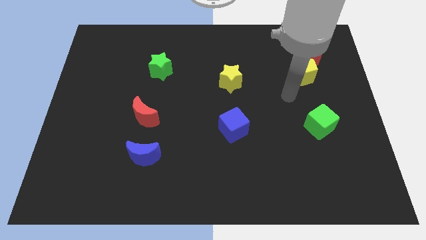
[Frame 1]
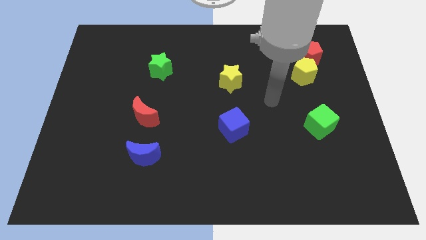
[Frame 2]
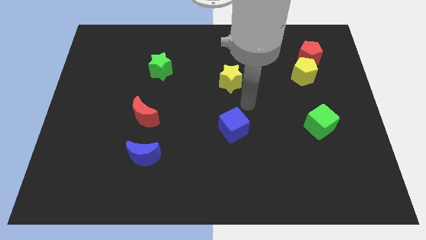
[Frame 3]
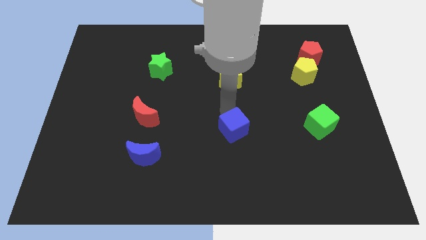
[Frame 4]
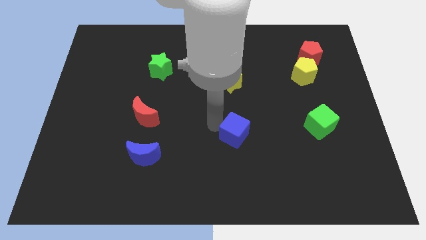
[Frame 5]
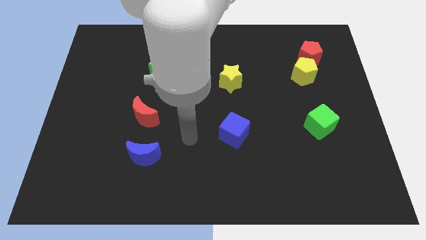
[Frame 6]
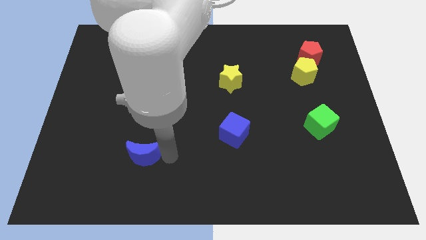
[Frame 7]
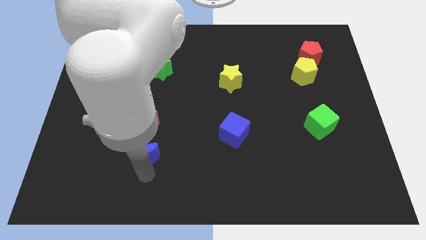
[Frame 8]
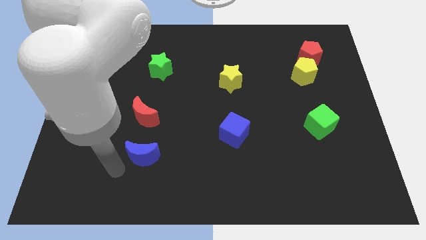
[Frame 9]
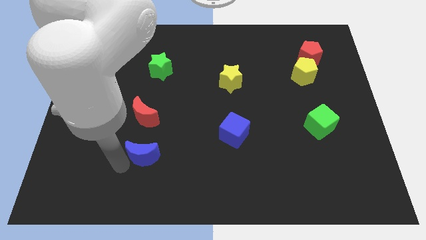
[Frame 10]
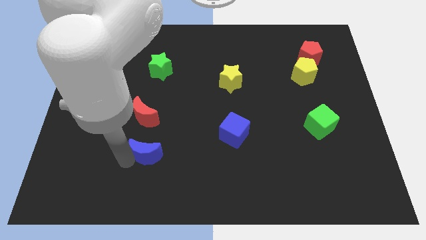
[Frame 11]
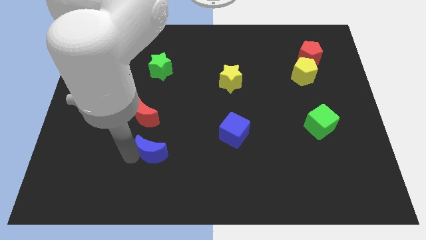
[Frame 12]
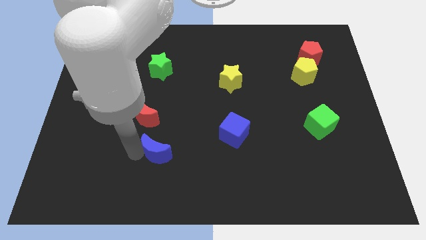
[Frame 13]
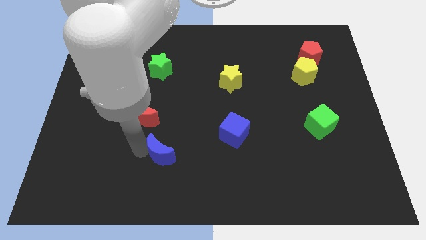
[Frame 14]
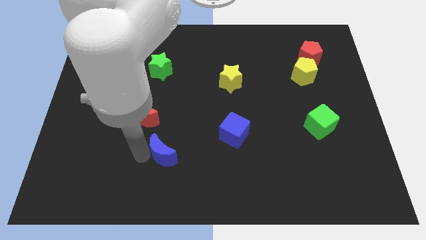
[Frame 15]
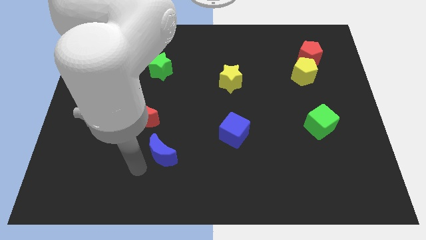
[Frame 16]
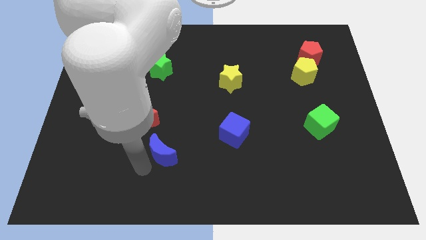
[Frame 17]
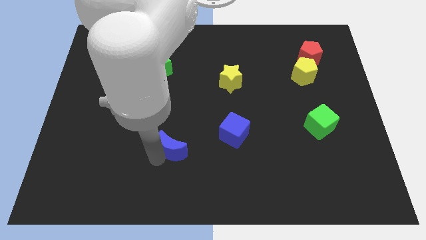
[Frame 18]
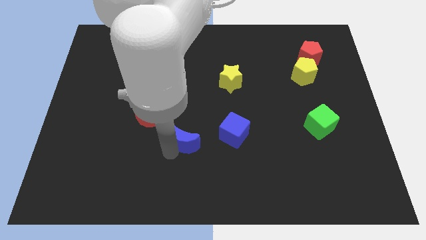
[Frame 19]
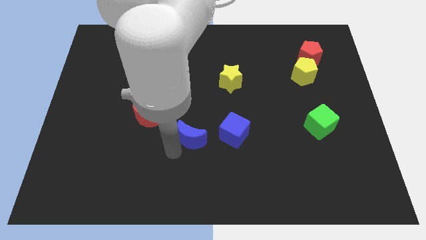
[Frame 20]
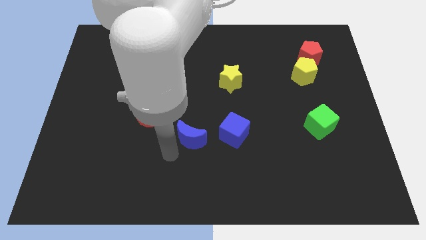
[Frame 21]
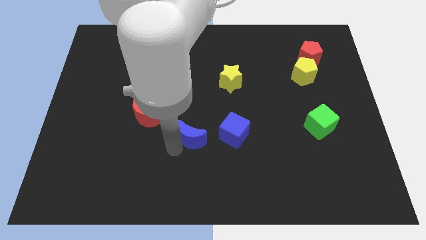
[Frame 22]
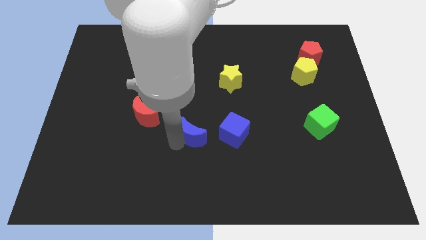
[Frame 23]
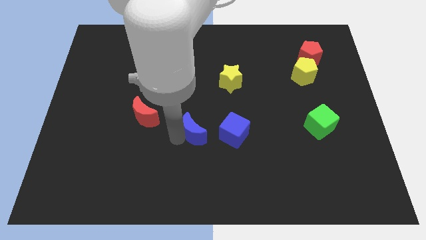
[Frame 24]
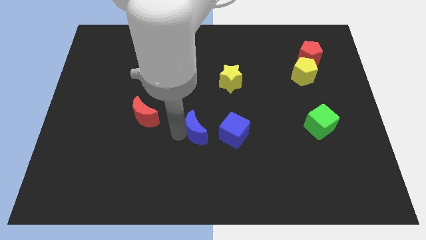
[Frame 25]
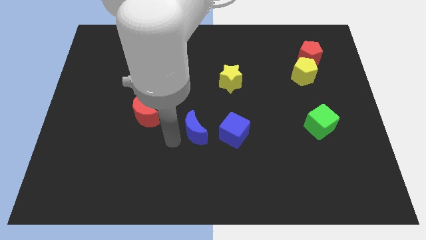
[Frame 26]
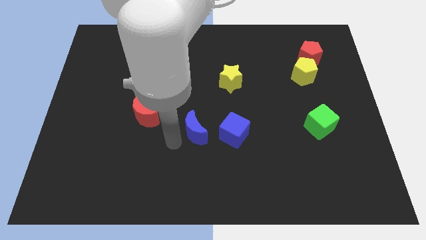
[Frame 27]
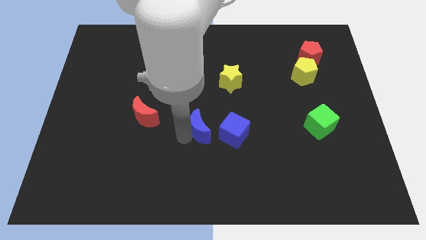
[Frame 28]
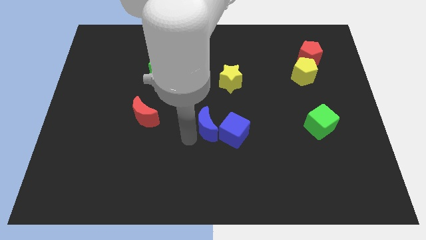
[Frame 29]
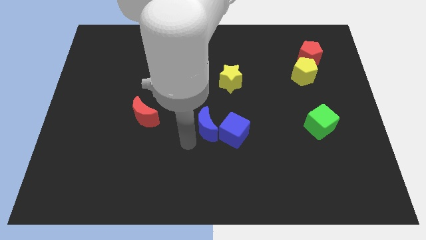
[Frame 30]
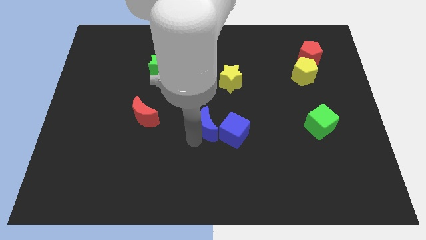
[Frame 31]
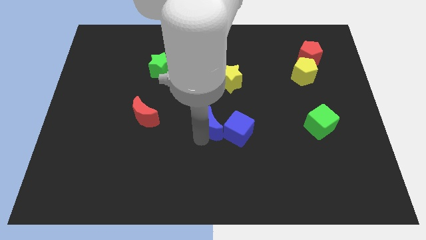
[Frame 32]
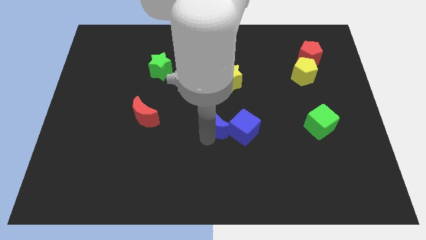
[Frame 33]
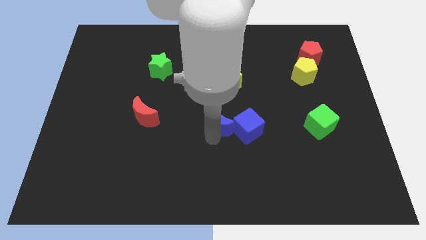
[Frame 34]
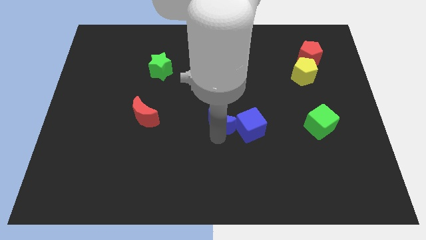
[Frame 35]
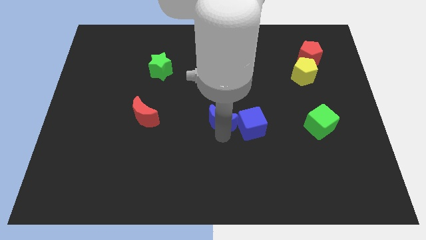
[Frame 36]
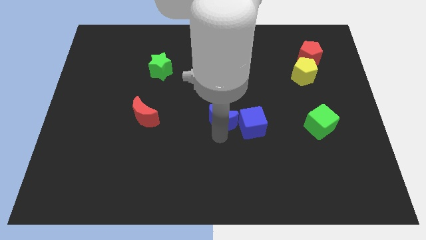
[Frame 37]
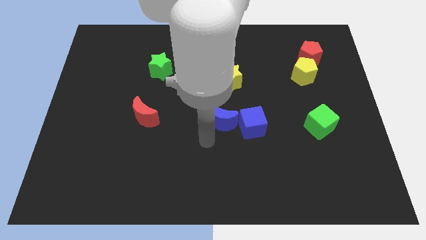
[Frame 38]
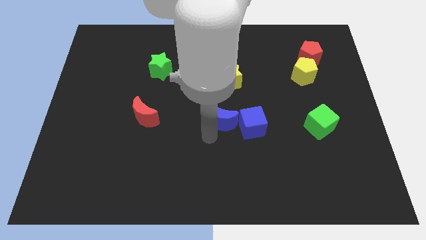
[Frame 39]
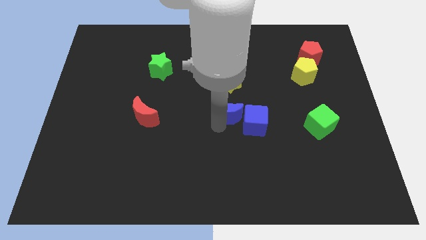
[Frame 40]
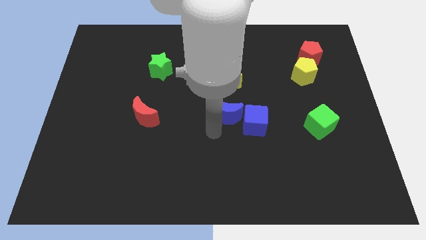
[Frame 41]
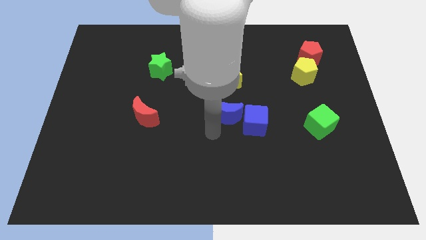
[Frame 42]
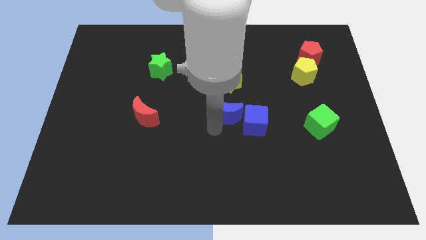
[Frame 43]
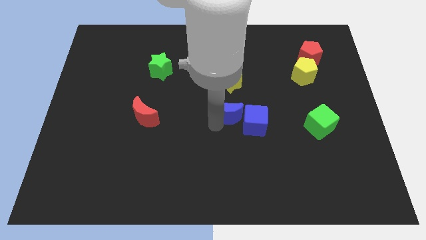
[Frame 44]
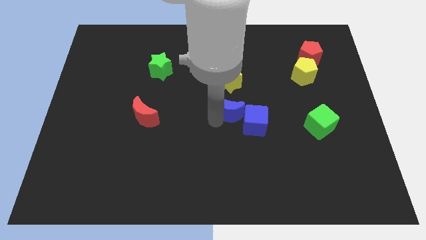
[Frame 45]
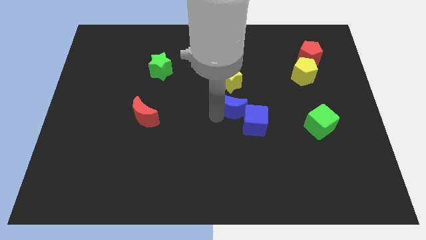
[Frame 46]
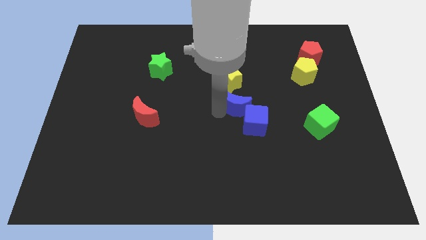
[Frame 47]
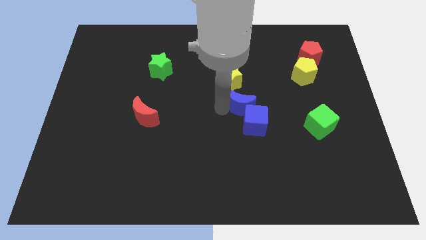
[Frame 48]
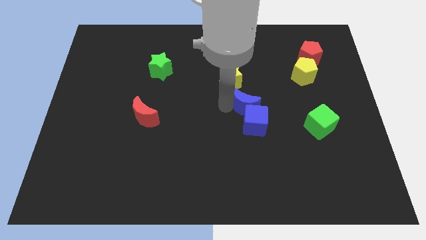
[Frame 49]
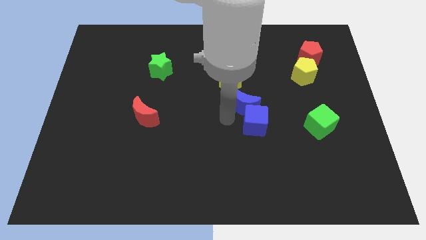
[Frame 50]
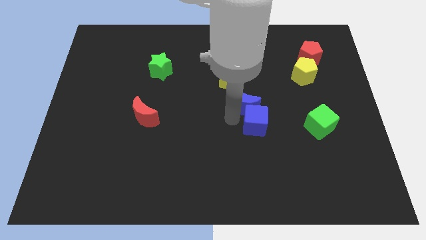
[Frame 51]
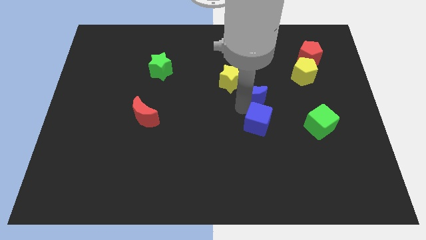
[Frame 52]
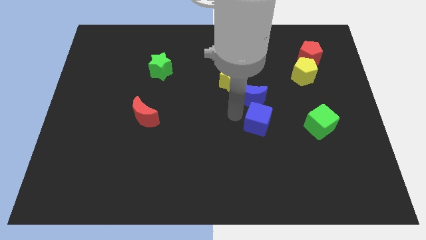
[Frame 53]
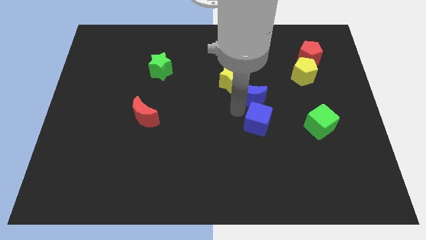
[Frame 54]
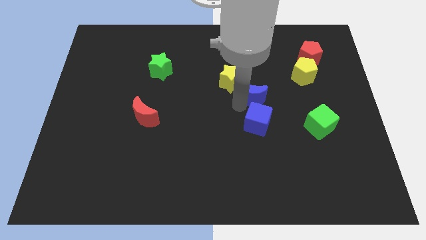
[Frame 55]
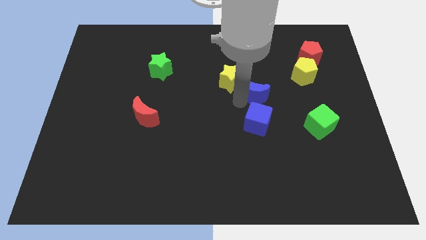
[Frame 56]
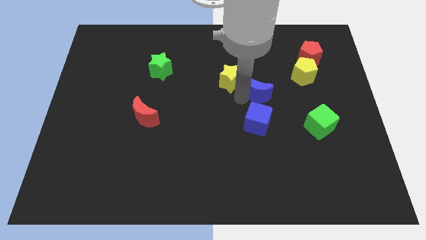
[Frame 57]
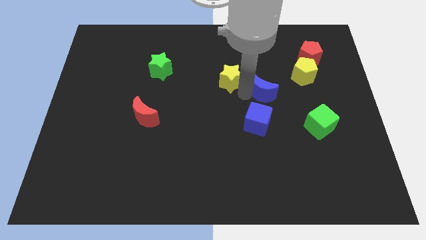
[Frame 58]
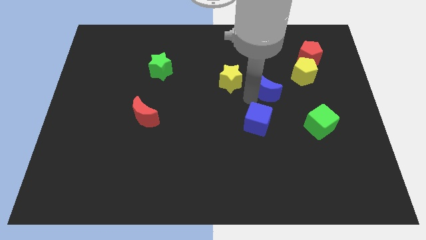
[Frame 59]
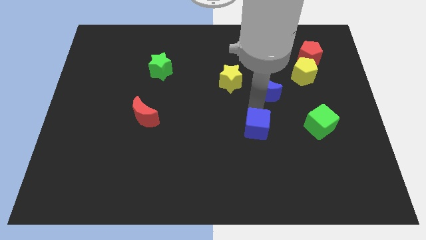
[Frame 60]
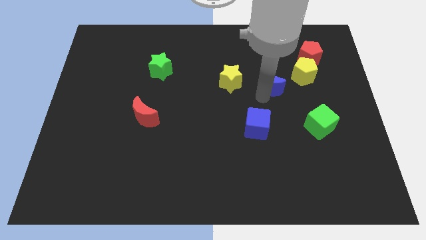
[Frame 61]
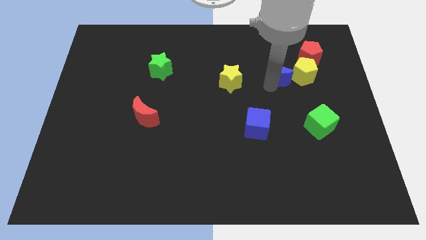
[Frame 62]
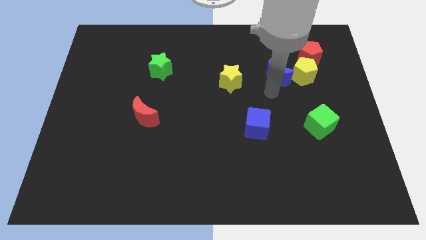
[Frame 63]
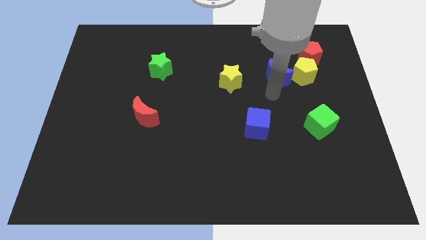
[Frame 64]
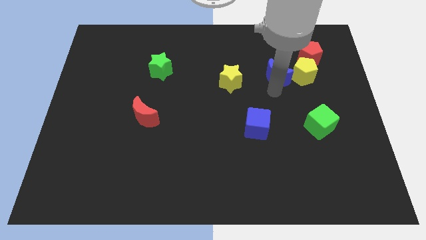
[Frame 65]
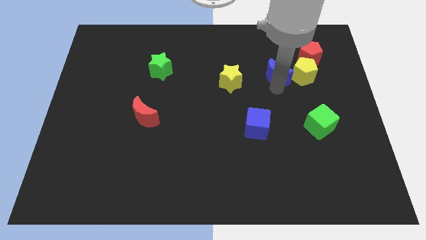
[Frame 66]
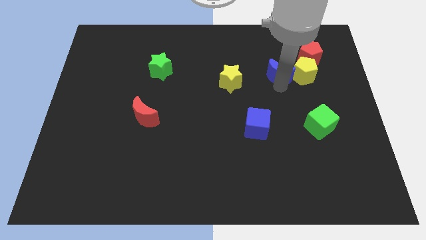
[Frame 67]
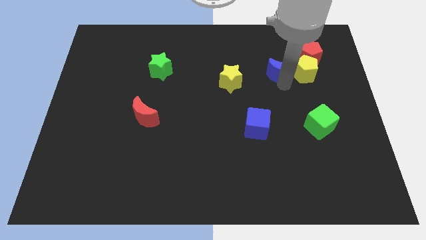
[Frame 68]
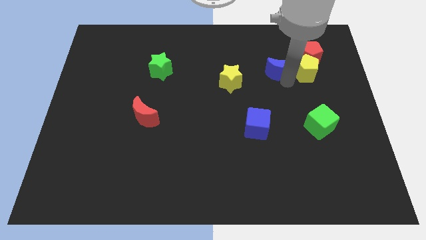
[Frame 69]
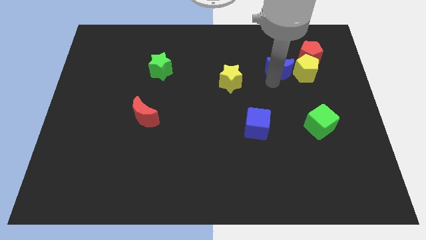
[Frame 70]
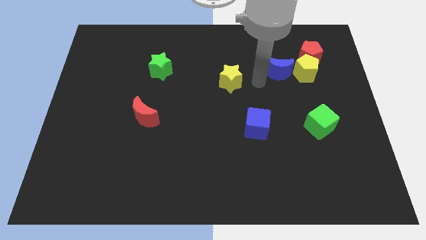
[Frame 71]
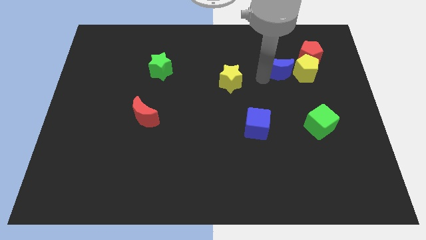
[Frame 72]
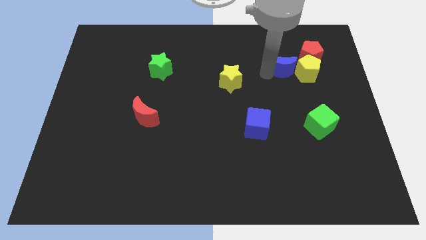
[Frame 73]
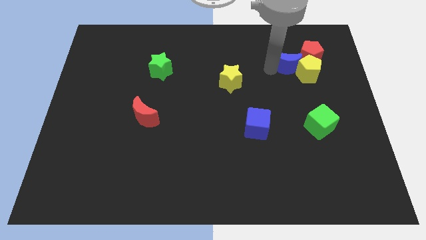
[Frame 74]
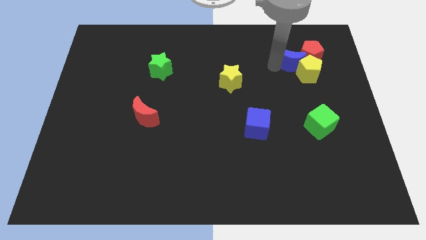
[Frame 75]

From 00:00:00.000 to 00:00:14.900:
push the blue moon towards the red pentagon
